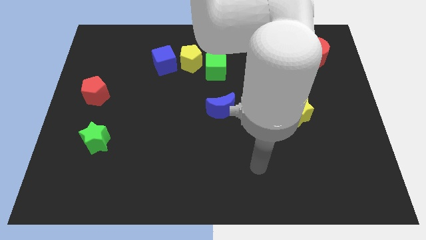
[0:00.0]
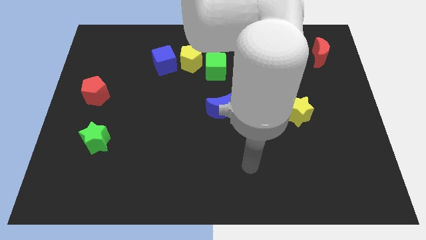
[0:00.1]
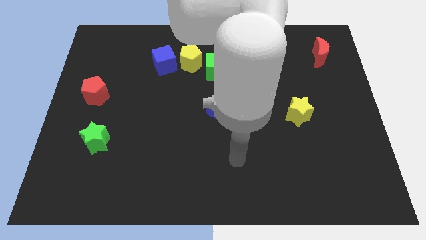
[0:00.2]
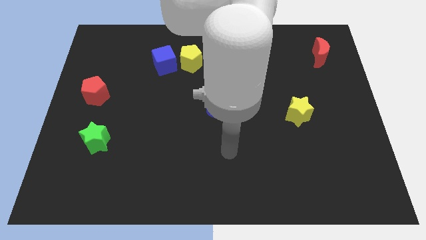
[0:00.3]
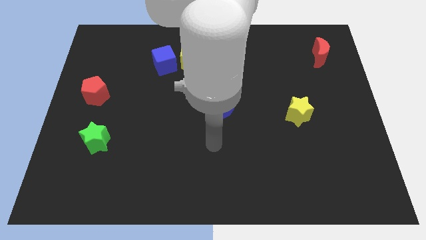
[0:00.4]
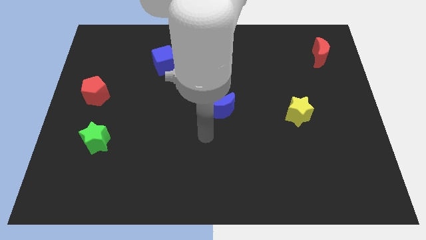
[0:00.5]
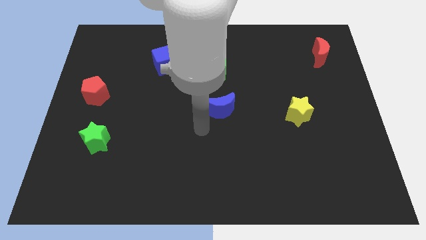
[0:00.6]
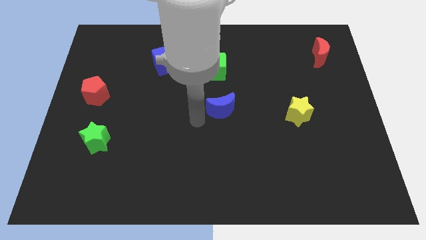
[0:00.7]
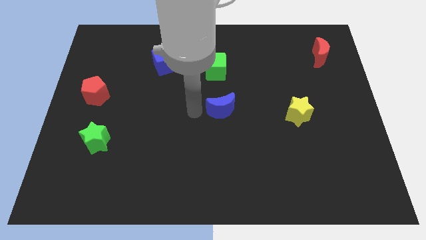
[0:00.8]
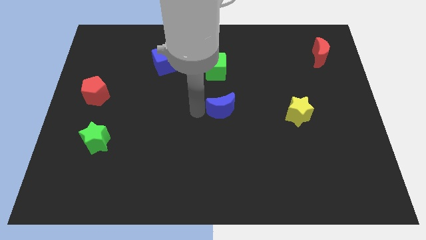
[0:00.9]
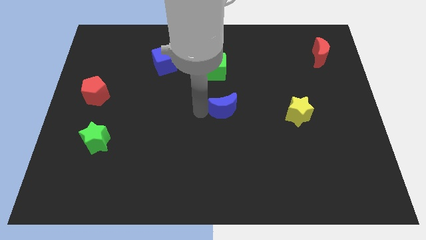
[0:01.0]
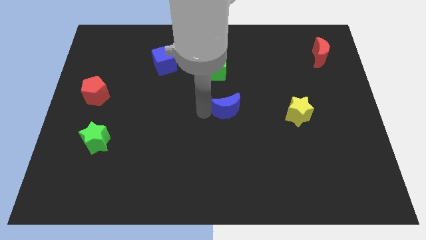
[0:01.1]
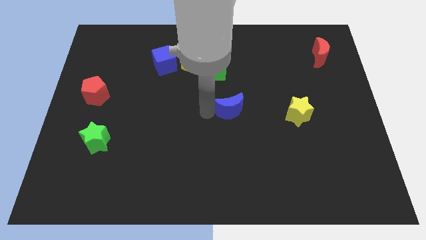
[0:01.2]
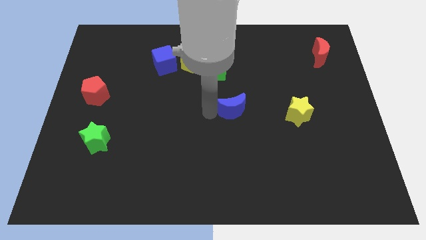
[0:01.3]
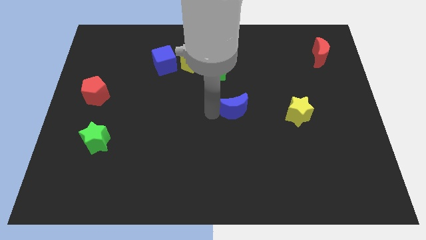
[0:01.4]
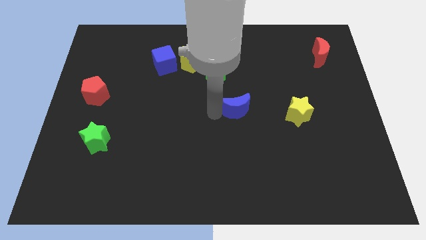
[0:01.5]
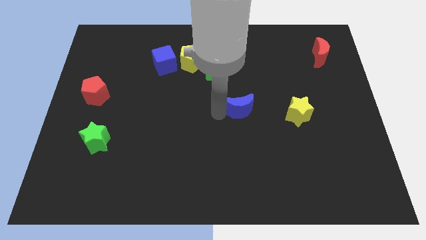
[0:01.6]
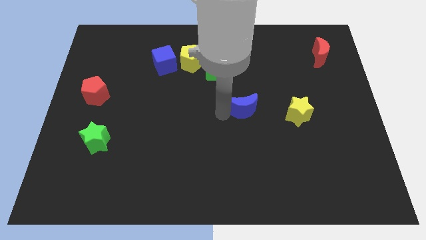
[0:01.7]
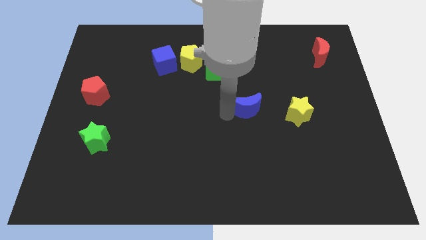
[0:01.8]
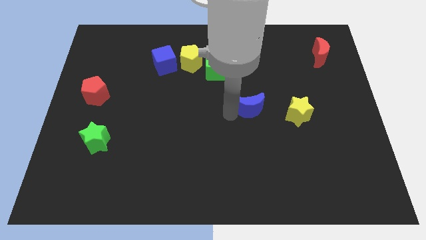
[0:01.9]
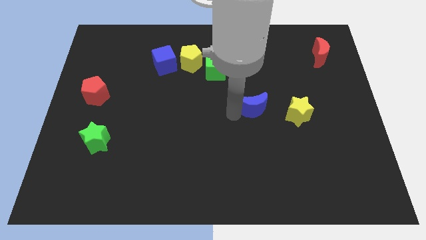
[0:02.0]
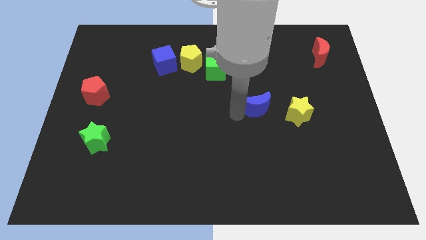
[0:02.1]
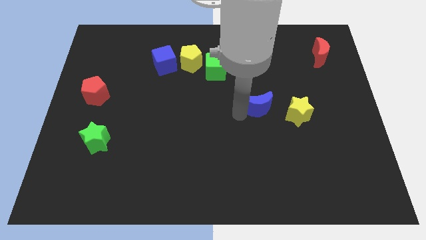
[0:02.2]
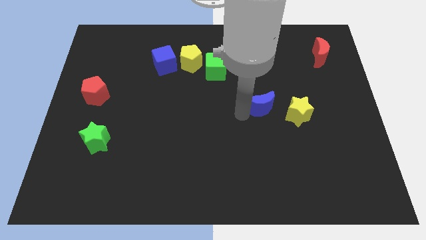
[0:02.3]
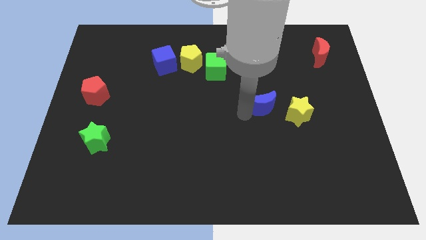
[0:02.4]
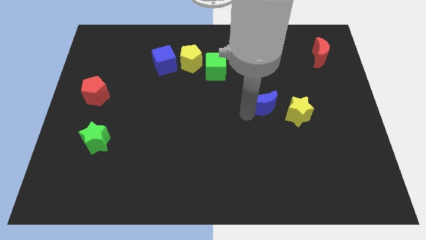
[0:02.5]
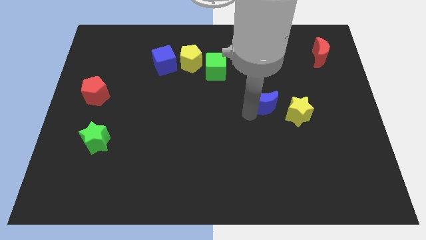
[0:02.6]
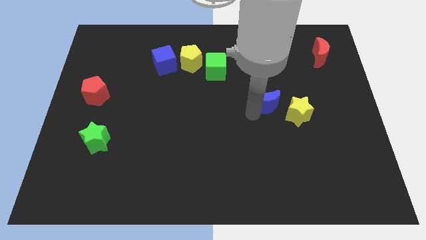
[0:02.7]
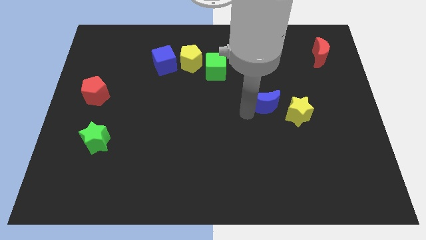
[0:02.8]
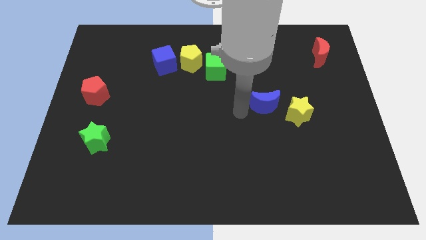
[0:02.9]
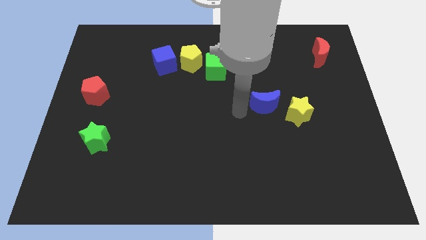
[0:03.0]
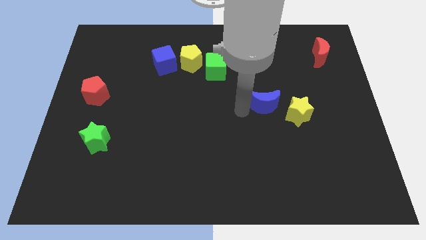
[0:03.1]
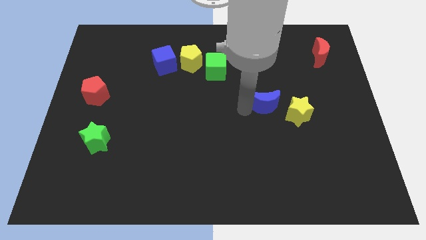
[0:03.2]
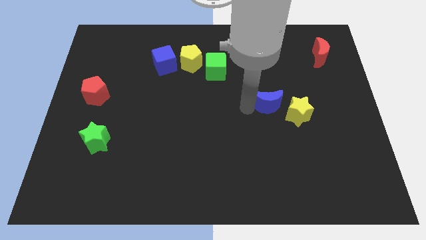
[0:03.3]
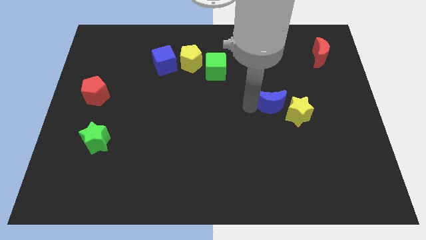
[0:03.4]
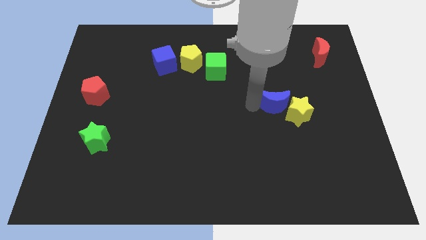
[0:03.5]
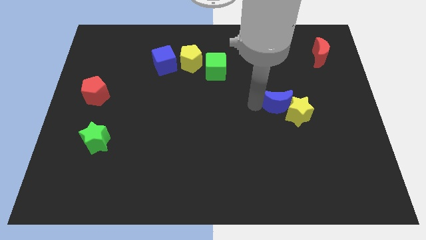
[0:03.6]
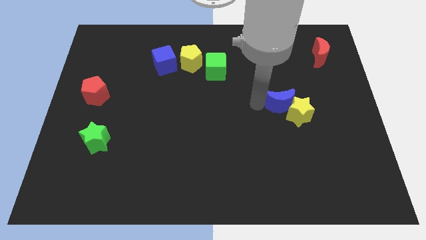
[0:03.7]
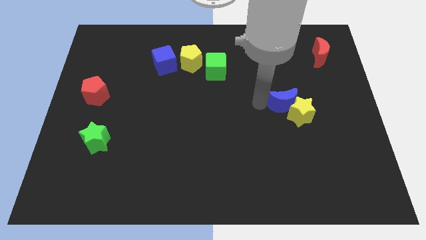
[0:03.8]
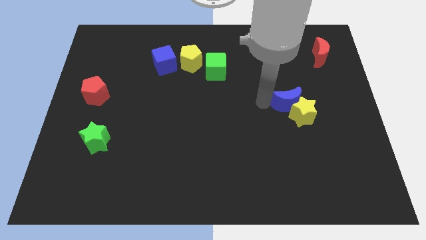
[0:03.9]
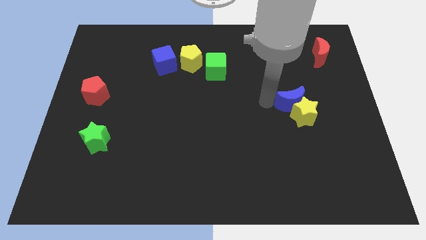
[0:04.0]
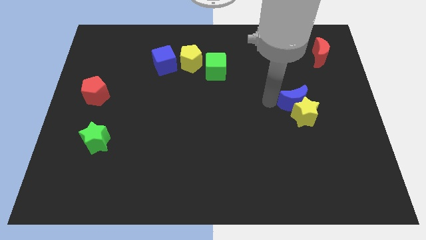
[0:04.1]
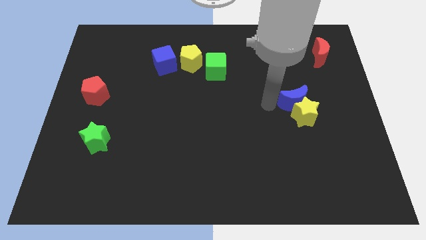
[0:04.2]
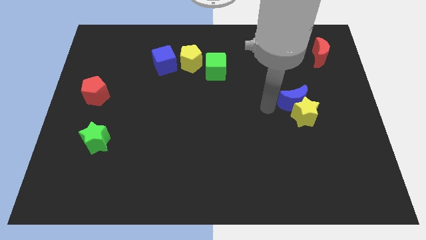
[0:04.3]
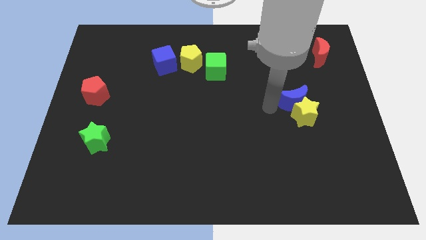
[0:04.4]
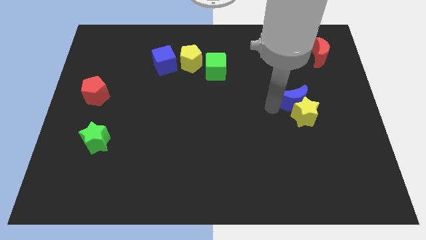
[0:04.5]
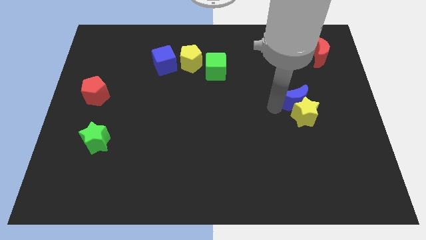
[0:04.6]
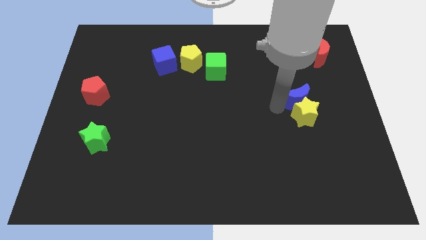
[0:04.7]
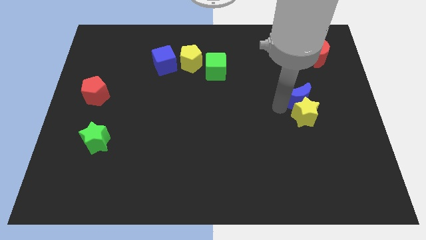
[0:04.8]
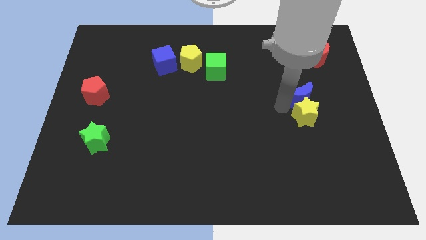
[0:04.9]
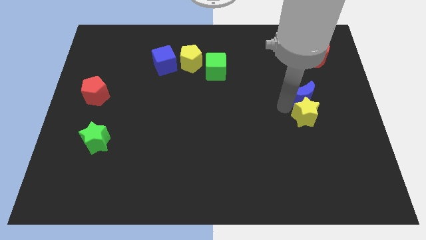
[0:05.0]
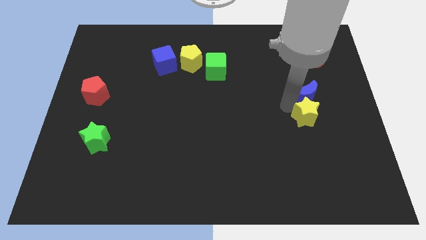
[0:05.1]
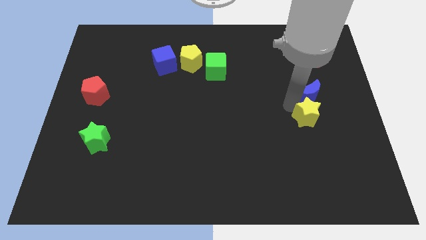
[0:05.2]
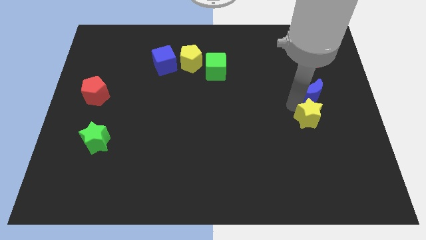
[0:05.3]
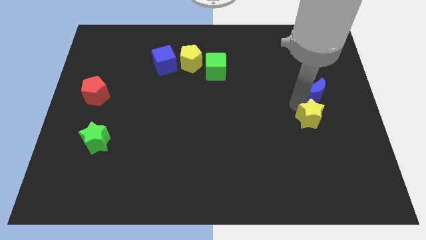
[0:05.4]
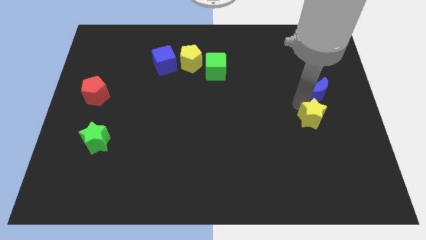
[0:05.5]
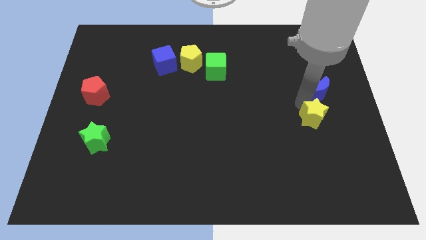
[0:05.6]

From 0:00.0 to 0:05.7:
push the blue moon to the right side of the board
